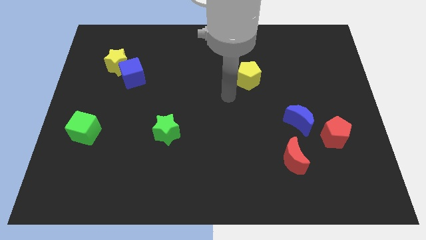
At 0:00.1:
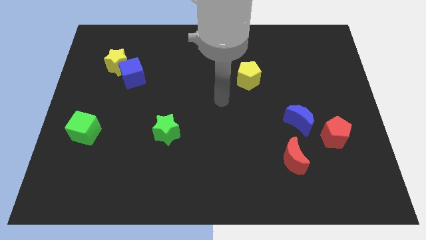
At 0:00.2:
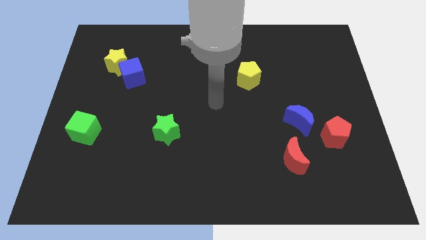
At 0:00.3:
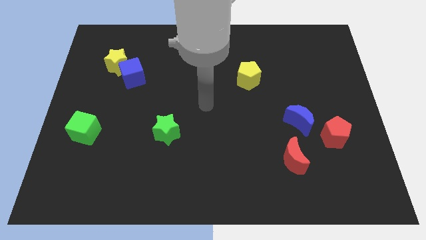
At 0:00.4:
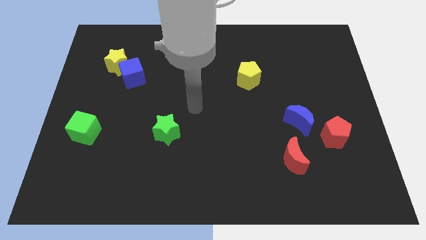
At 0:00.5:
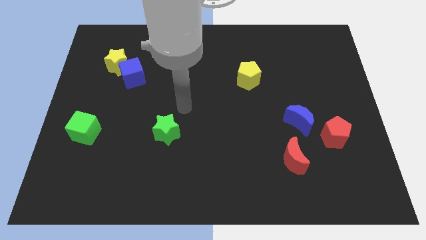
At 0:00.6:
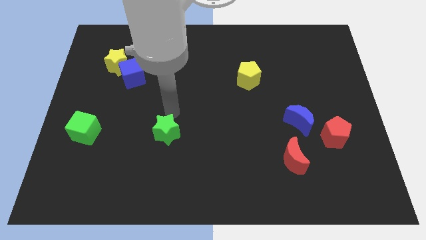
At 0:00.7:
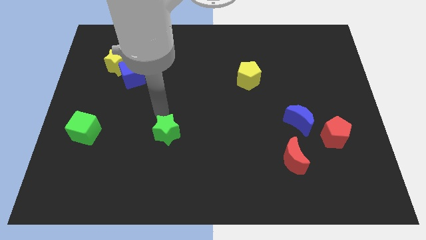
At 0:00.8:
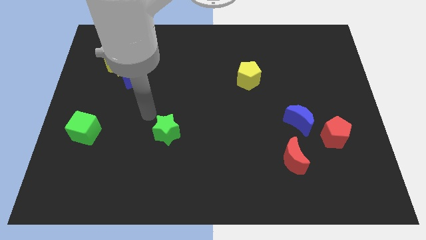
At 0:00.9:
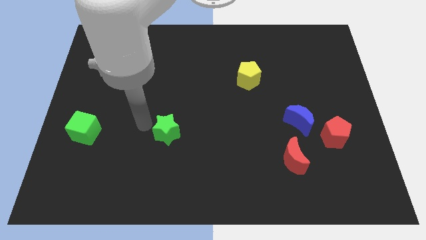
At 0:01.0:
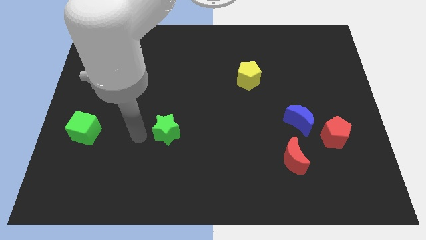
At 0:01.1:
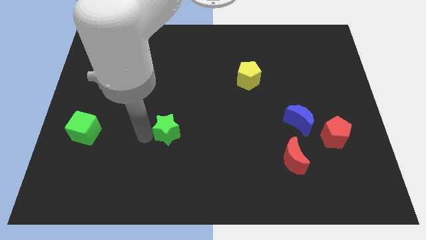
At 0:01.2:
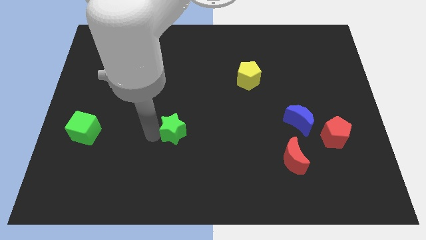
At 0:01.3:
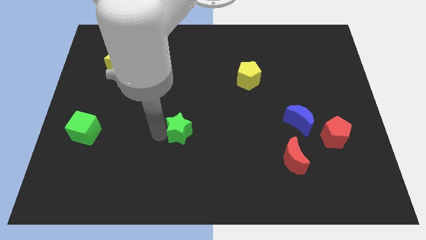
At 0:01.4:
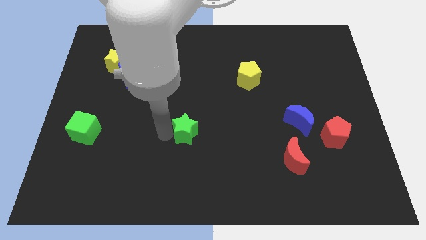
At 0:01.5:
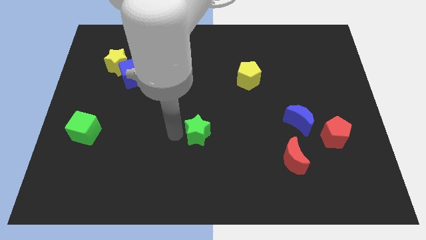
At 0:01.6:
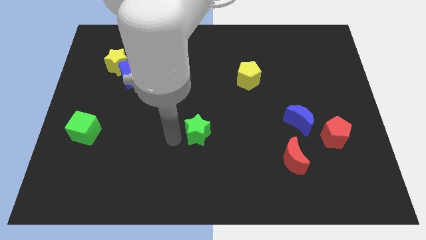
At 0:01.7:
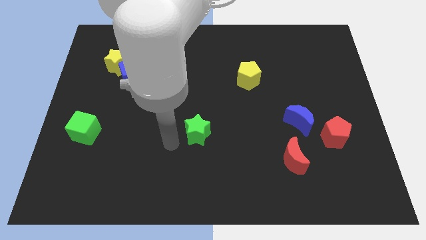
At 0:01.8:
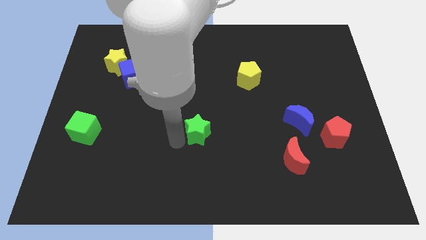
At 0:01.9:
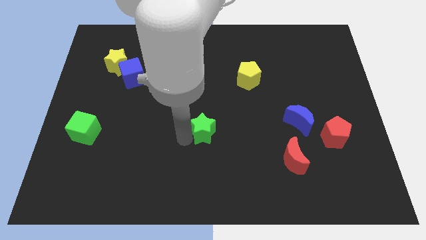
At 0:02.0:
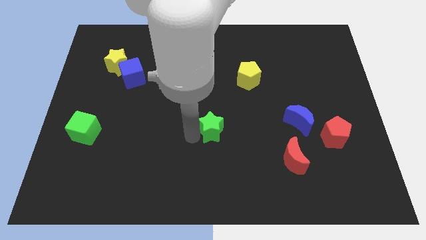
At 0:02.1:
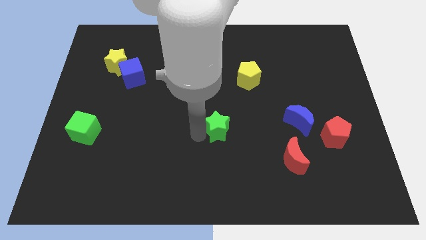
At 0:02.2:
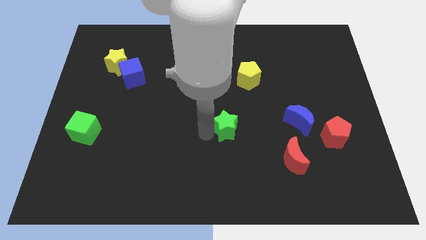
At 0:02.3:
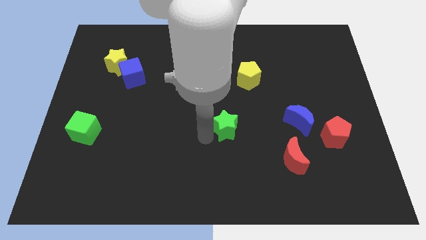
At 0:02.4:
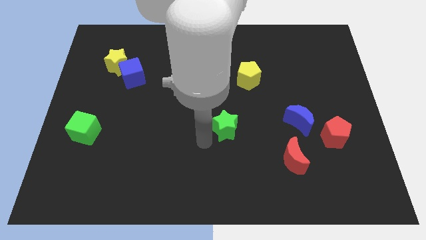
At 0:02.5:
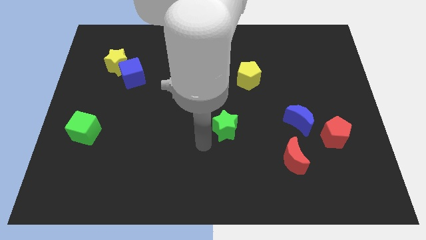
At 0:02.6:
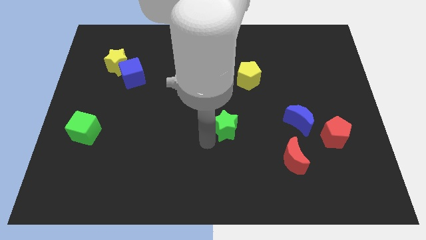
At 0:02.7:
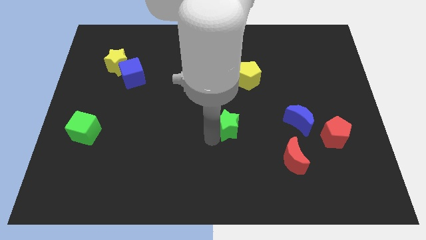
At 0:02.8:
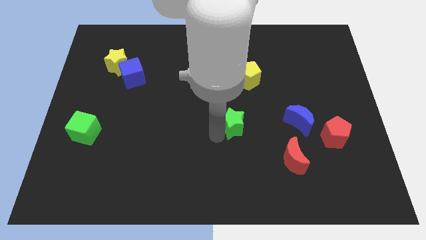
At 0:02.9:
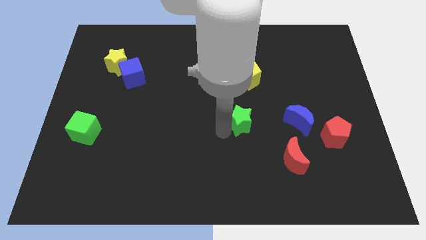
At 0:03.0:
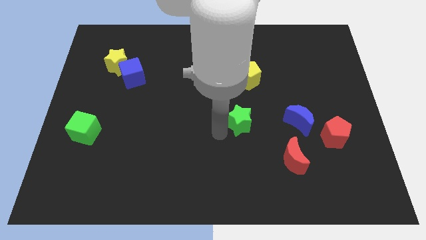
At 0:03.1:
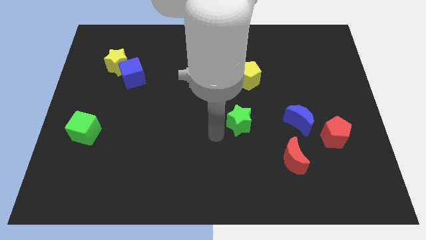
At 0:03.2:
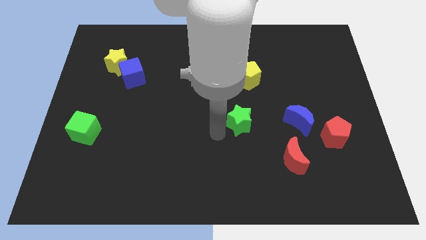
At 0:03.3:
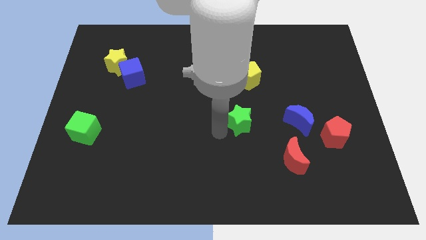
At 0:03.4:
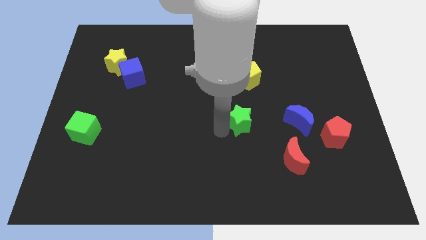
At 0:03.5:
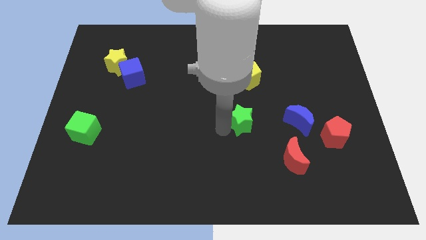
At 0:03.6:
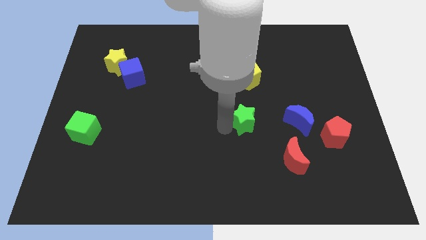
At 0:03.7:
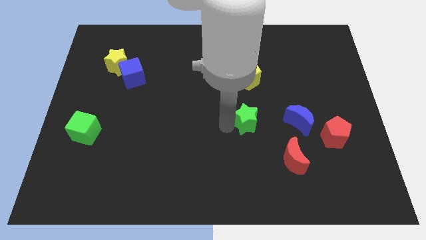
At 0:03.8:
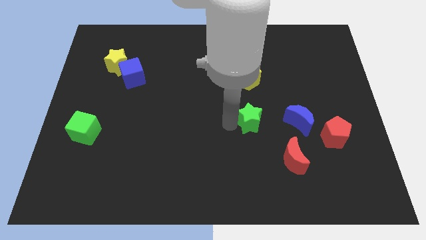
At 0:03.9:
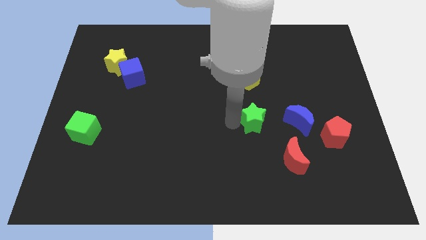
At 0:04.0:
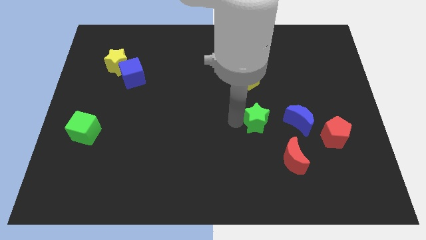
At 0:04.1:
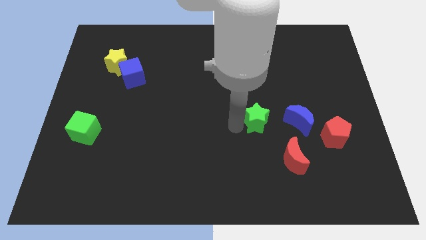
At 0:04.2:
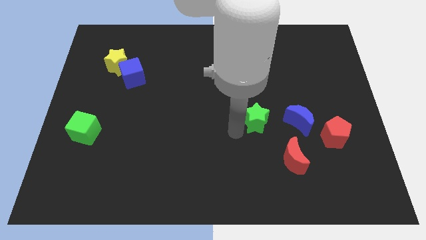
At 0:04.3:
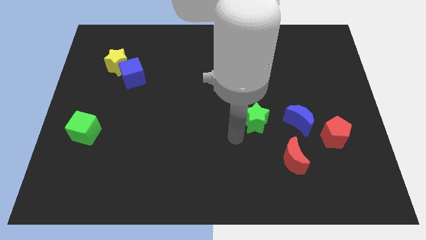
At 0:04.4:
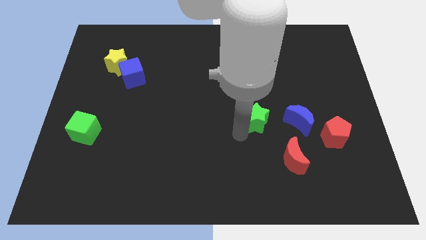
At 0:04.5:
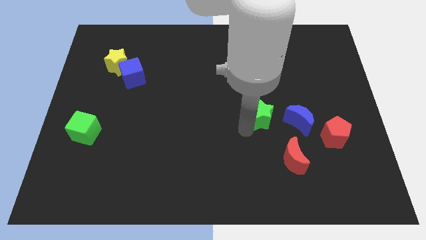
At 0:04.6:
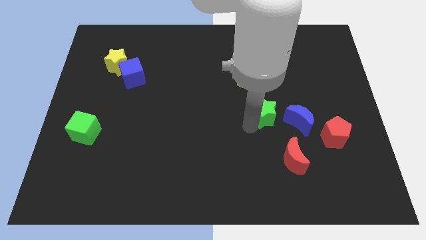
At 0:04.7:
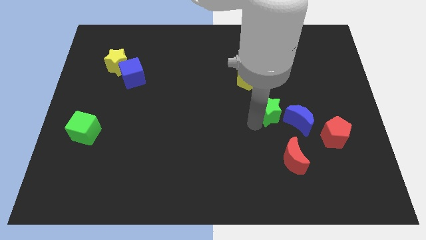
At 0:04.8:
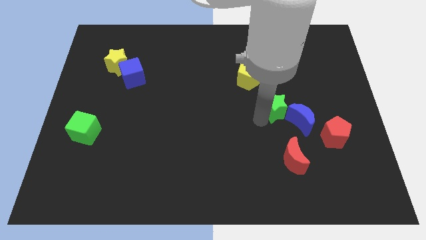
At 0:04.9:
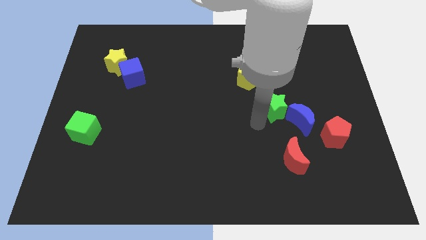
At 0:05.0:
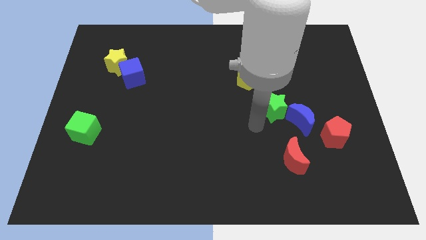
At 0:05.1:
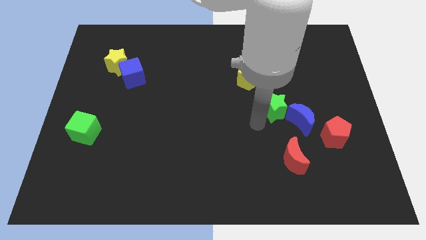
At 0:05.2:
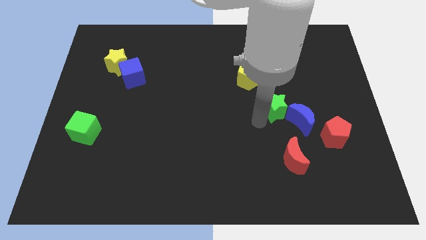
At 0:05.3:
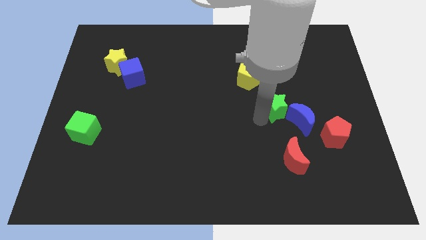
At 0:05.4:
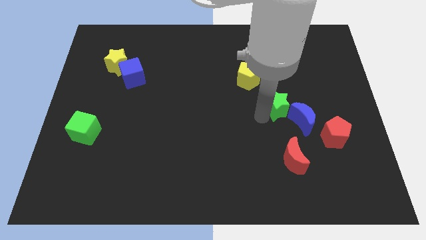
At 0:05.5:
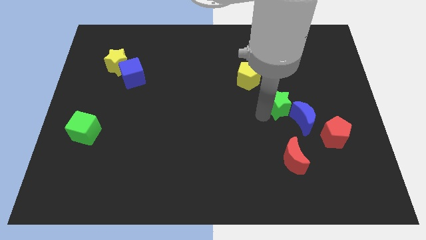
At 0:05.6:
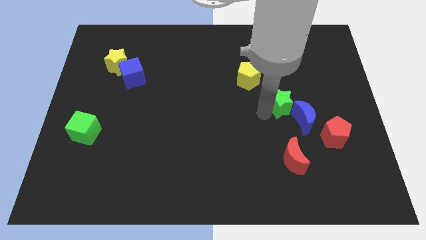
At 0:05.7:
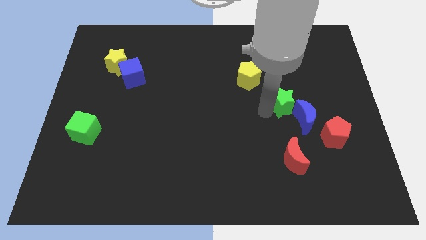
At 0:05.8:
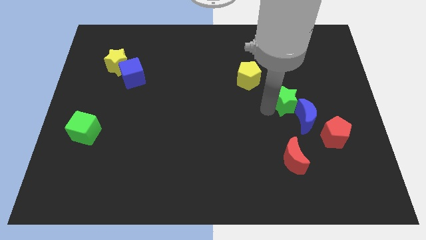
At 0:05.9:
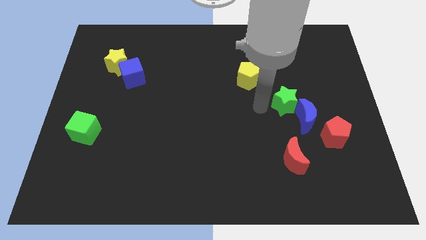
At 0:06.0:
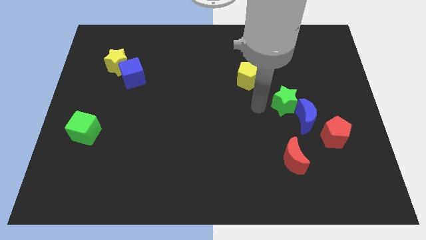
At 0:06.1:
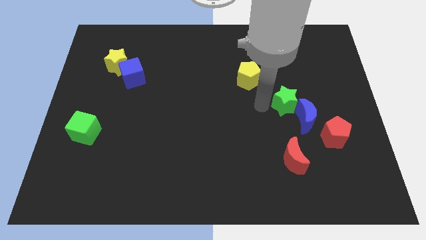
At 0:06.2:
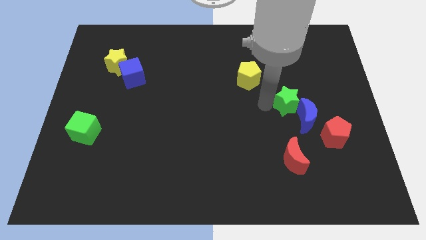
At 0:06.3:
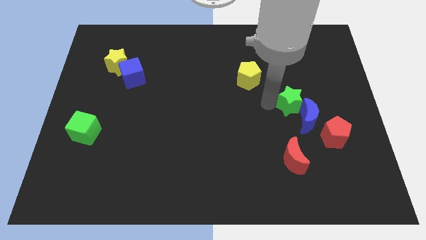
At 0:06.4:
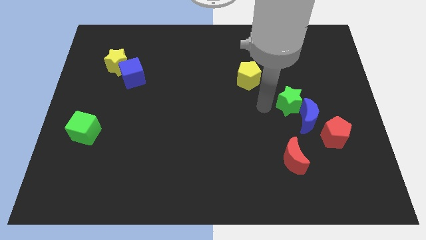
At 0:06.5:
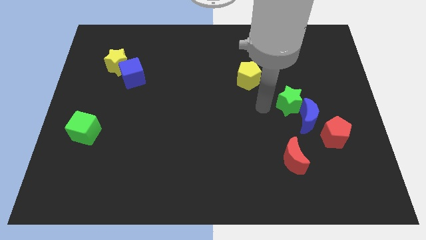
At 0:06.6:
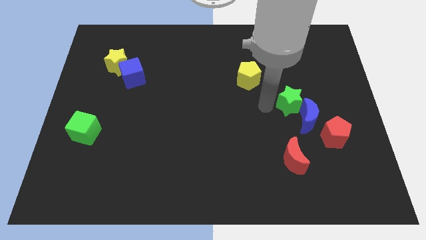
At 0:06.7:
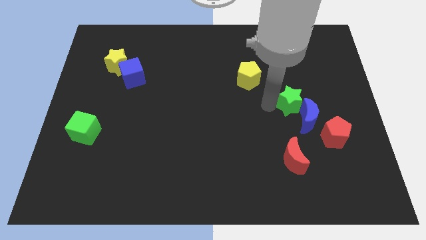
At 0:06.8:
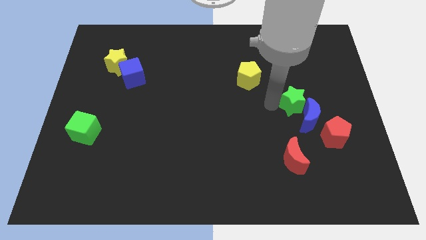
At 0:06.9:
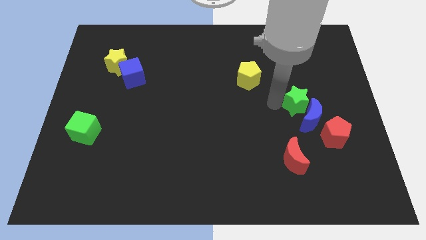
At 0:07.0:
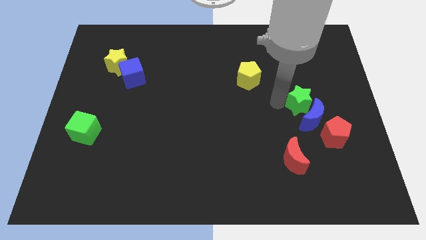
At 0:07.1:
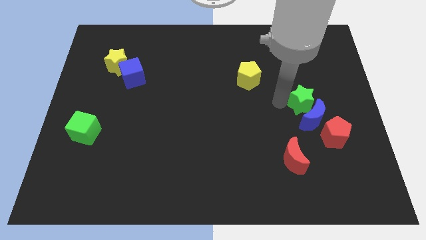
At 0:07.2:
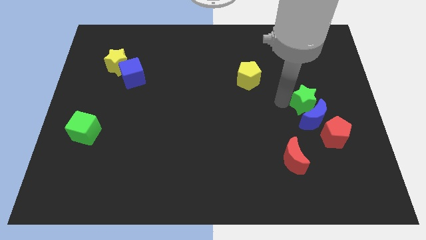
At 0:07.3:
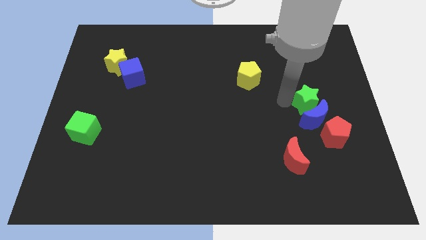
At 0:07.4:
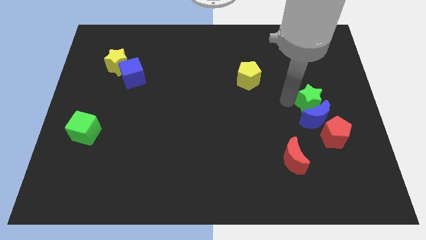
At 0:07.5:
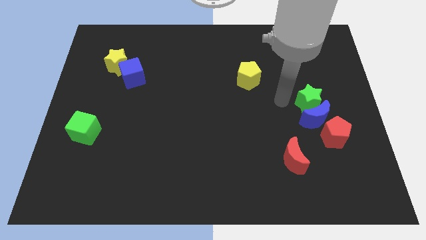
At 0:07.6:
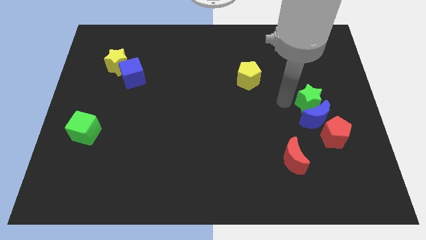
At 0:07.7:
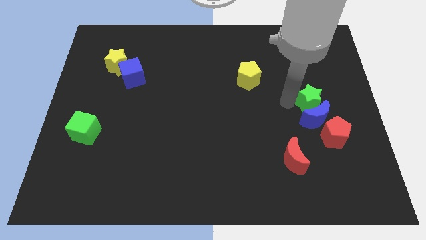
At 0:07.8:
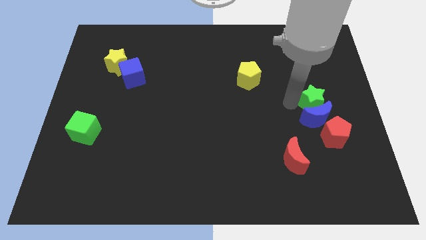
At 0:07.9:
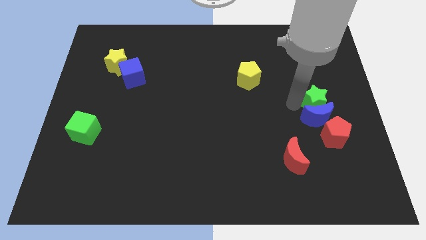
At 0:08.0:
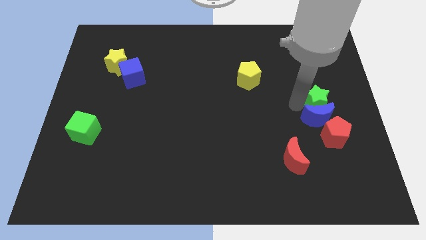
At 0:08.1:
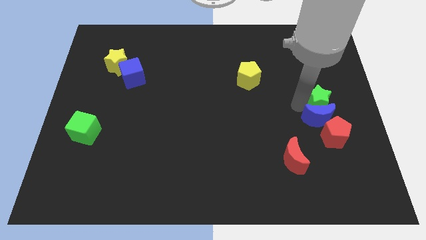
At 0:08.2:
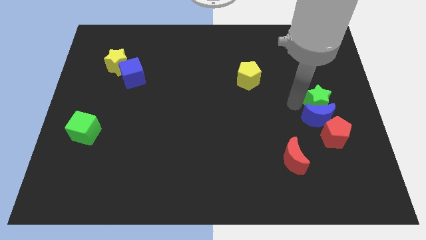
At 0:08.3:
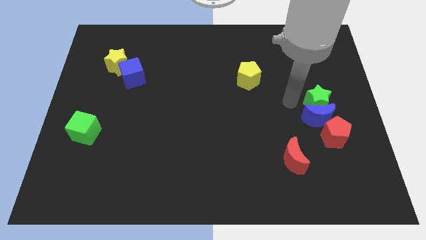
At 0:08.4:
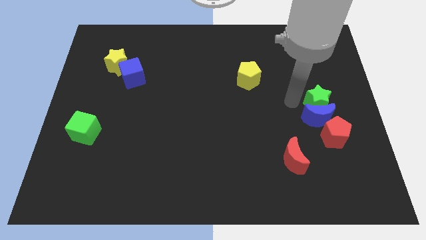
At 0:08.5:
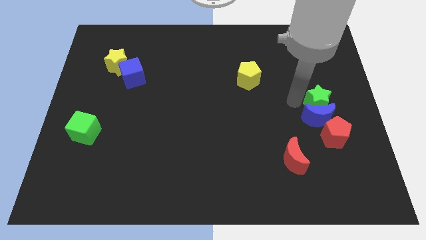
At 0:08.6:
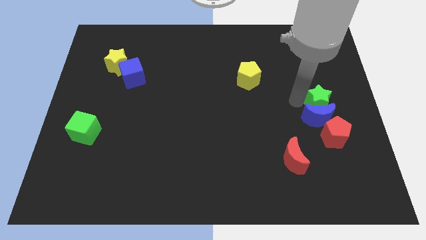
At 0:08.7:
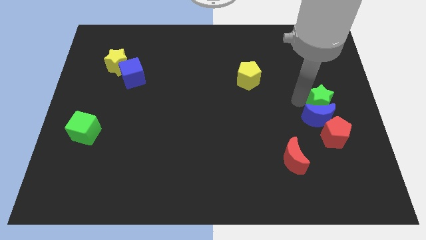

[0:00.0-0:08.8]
put the green star to the center right
